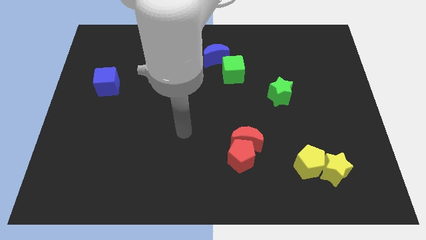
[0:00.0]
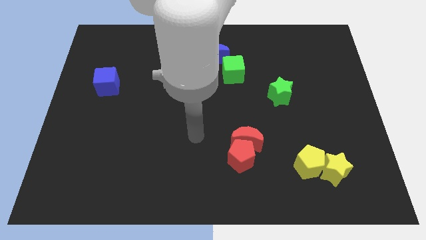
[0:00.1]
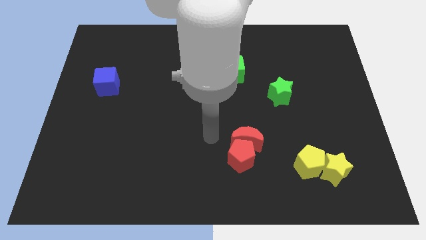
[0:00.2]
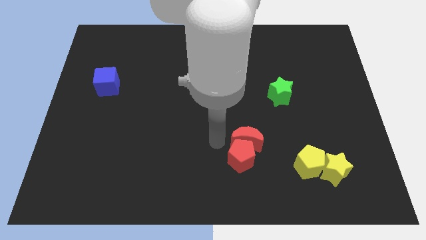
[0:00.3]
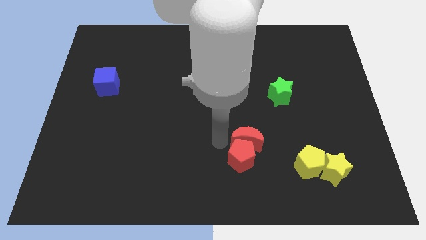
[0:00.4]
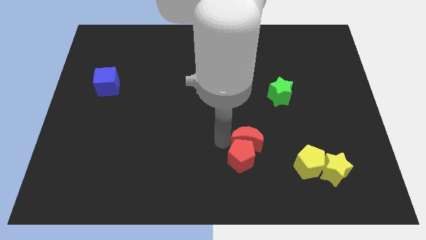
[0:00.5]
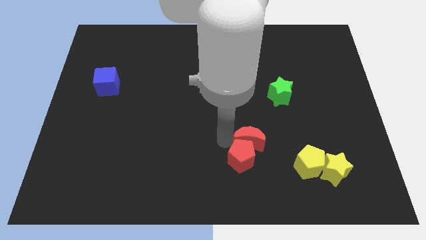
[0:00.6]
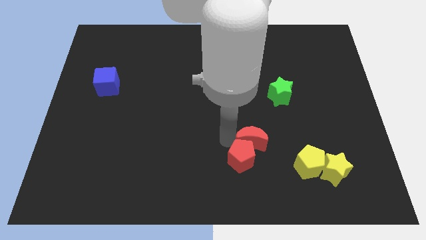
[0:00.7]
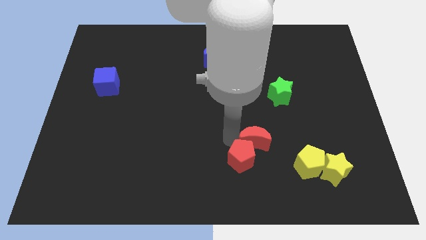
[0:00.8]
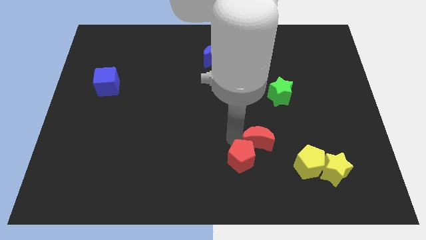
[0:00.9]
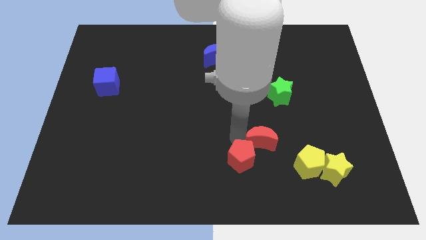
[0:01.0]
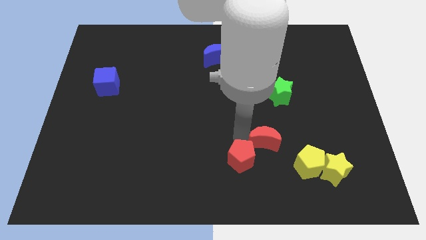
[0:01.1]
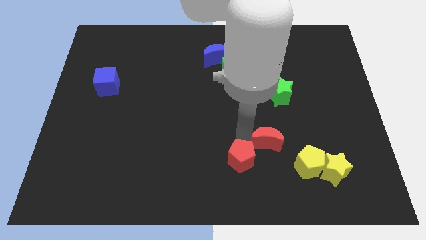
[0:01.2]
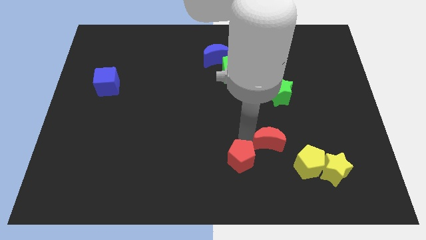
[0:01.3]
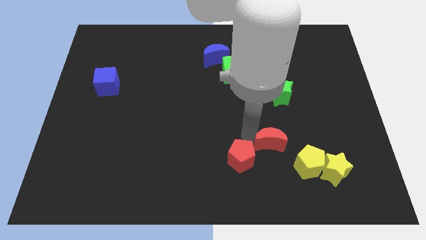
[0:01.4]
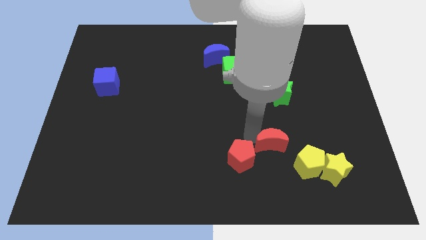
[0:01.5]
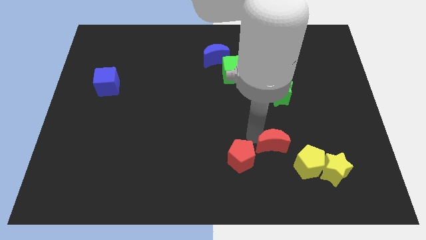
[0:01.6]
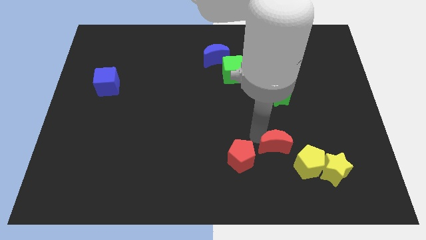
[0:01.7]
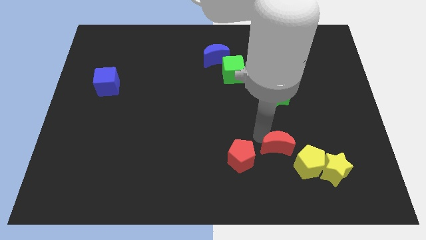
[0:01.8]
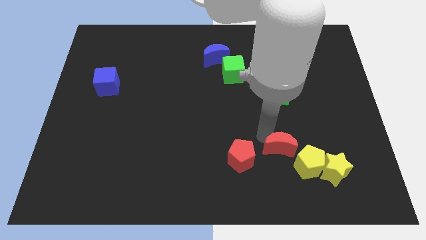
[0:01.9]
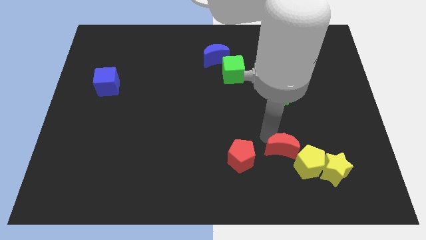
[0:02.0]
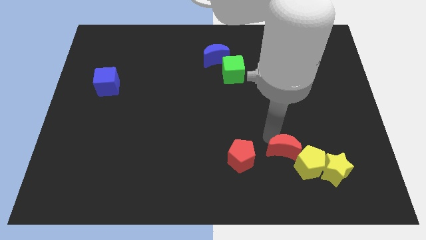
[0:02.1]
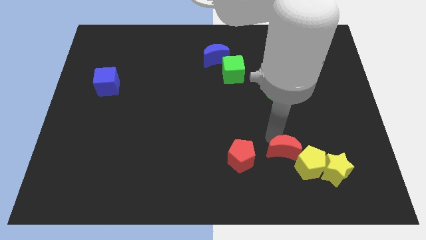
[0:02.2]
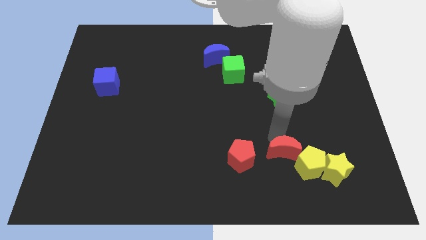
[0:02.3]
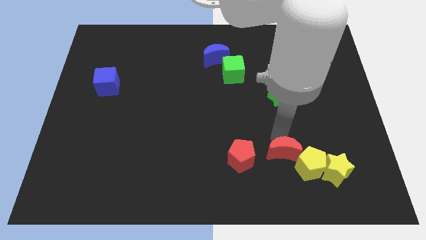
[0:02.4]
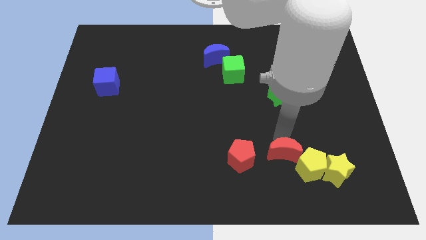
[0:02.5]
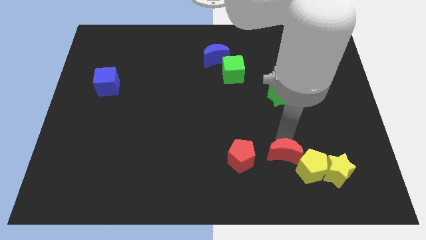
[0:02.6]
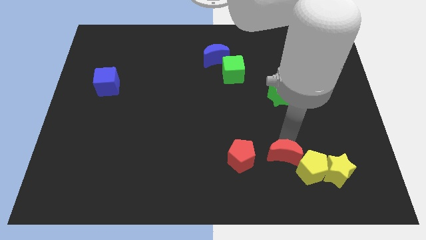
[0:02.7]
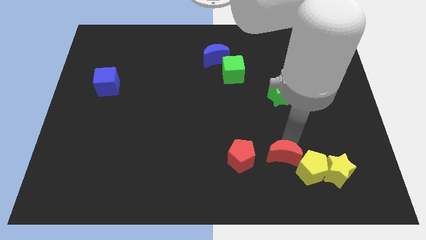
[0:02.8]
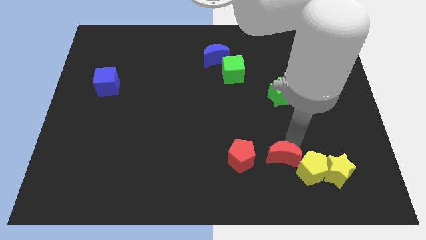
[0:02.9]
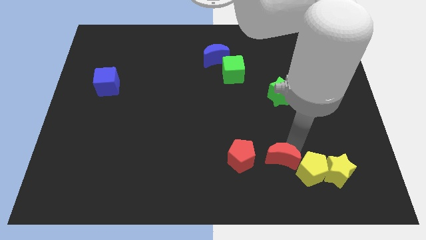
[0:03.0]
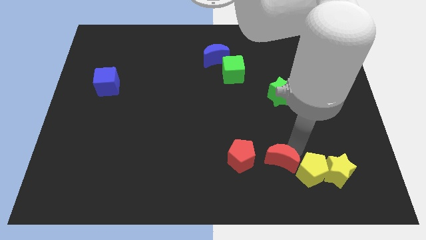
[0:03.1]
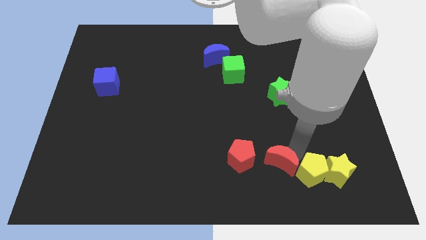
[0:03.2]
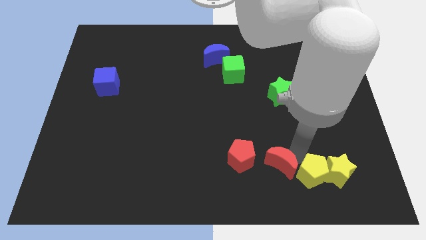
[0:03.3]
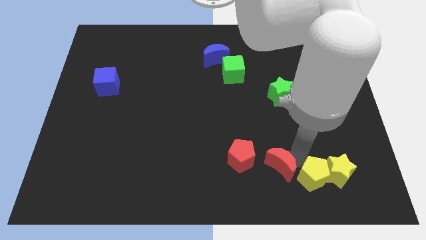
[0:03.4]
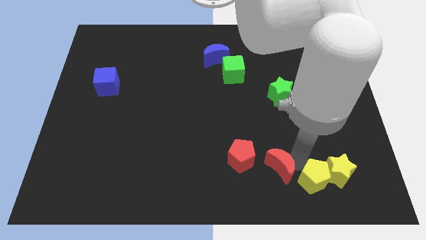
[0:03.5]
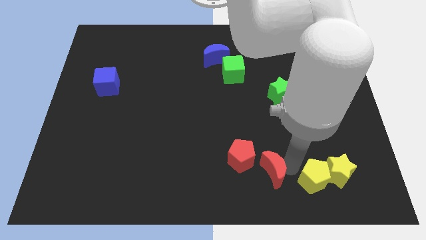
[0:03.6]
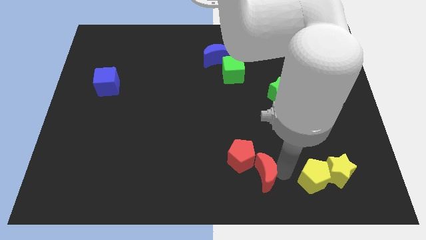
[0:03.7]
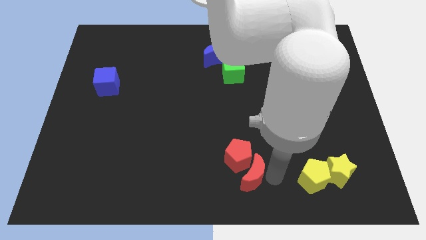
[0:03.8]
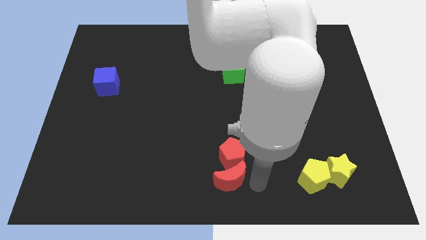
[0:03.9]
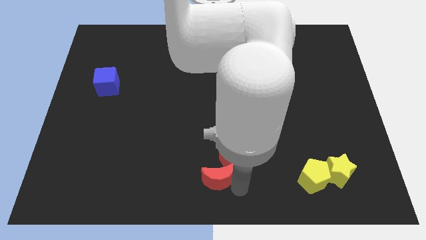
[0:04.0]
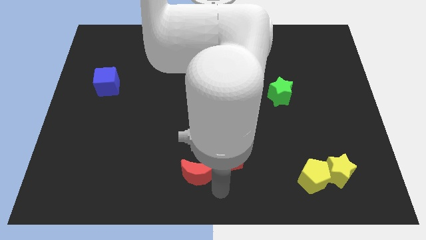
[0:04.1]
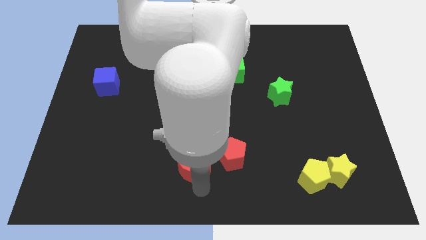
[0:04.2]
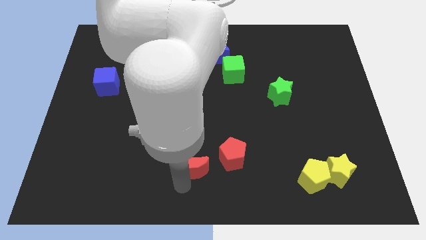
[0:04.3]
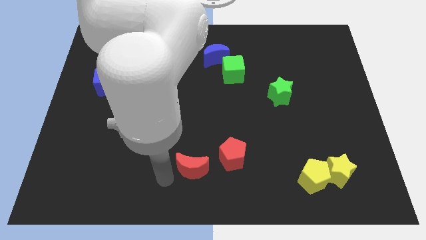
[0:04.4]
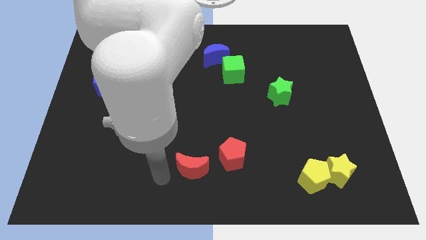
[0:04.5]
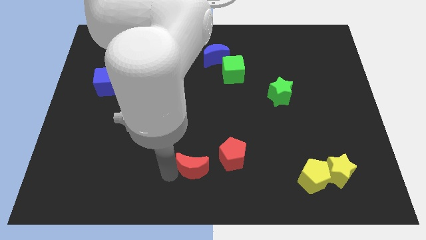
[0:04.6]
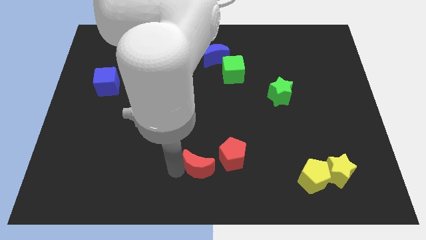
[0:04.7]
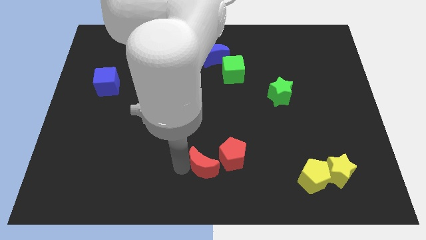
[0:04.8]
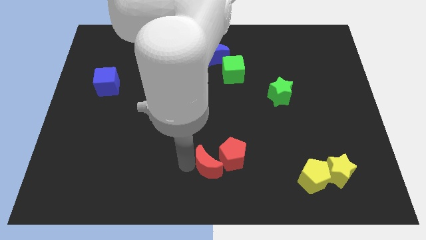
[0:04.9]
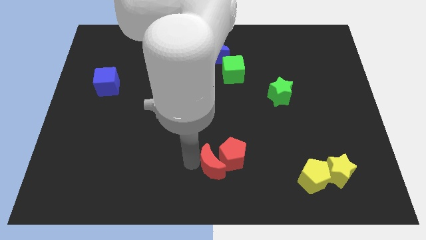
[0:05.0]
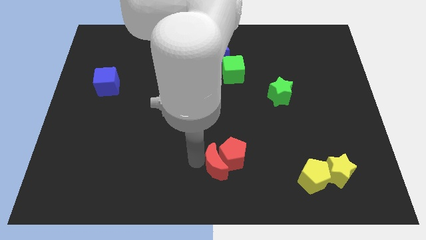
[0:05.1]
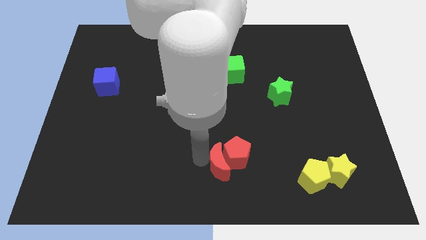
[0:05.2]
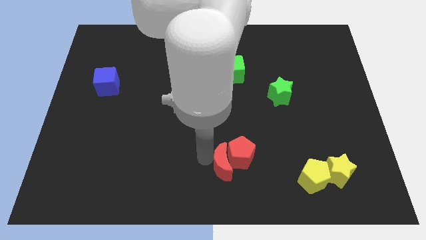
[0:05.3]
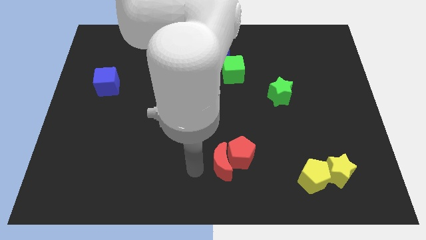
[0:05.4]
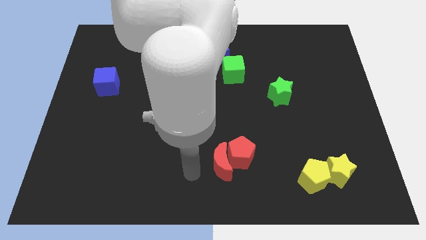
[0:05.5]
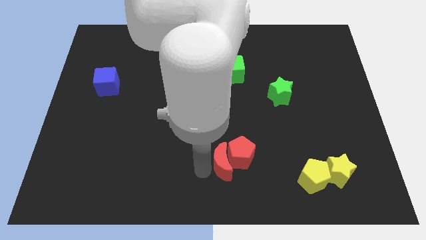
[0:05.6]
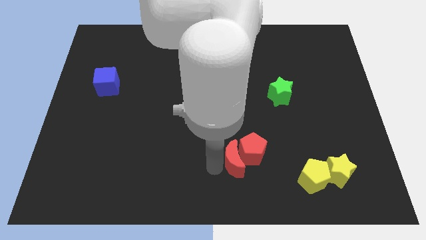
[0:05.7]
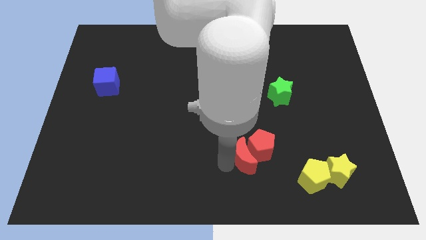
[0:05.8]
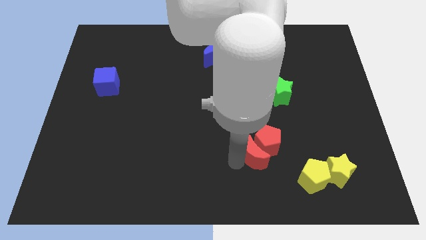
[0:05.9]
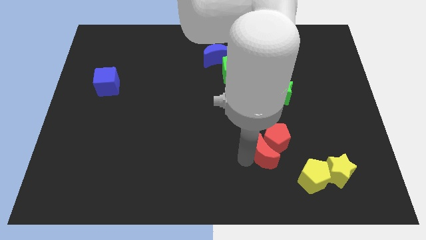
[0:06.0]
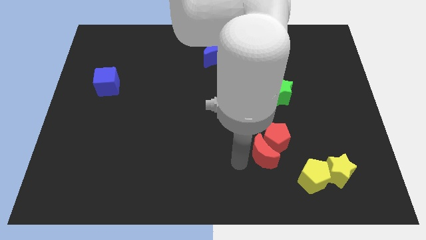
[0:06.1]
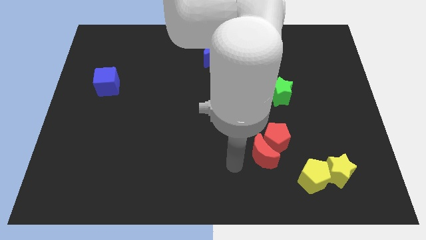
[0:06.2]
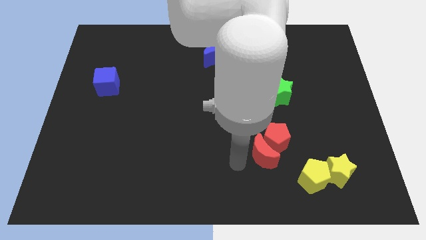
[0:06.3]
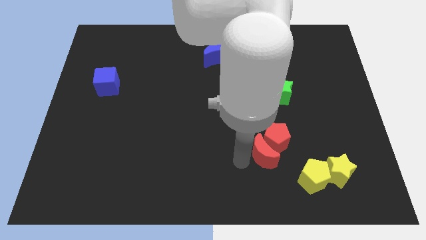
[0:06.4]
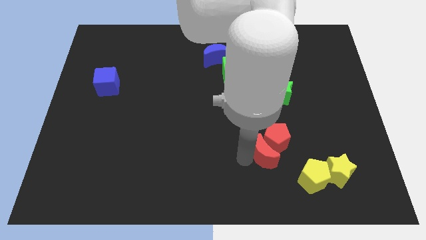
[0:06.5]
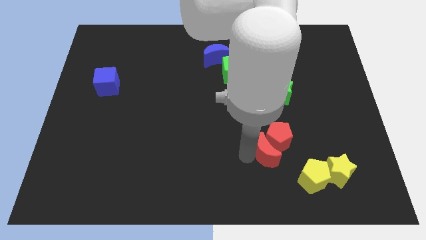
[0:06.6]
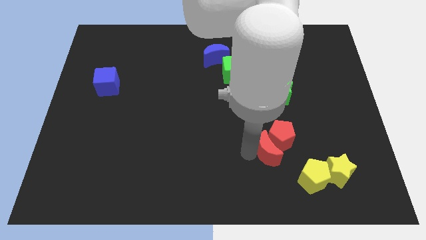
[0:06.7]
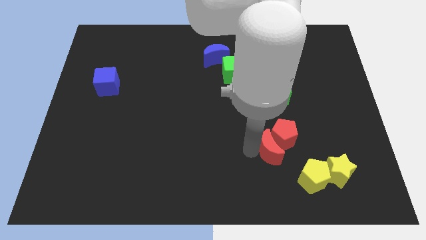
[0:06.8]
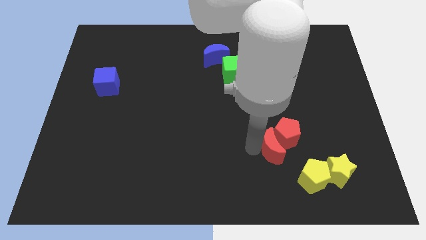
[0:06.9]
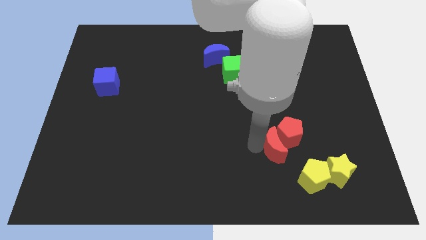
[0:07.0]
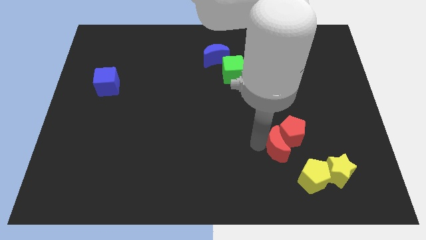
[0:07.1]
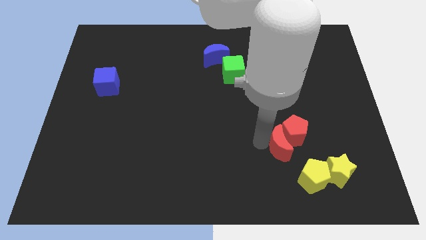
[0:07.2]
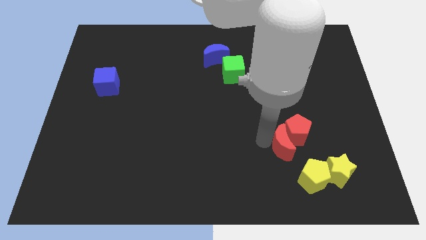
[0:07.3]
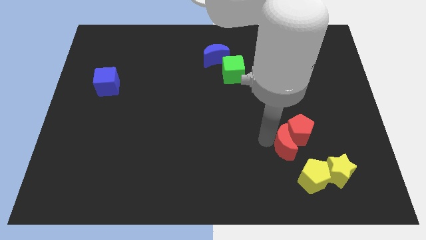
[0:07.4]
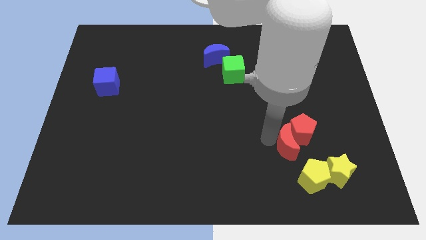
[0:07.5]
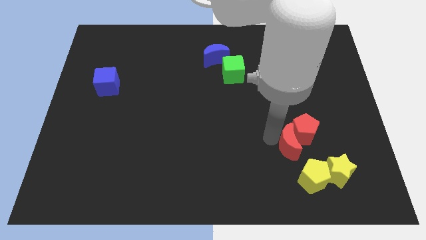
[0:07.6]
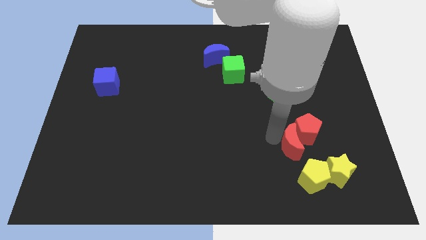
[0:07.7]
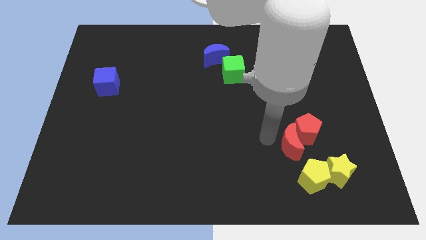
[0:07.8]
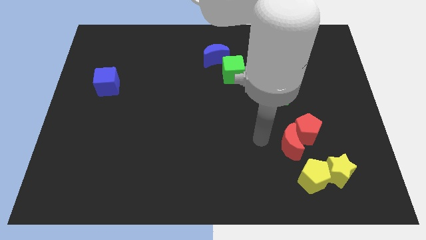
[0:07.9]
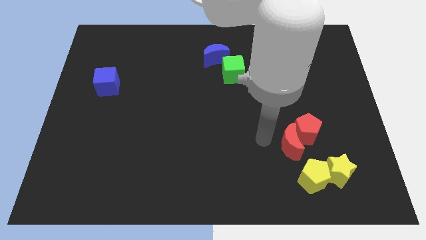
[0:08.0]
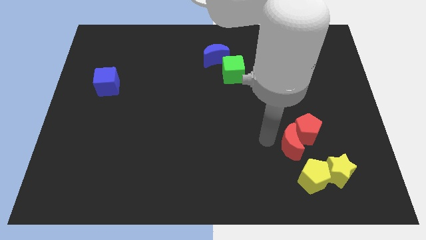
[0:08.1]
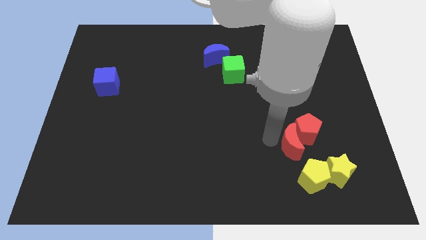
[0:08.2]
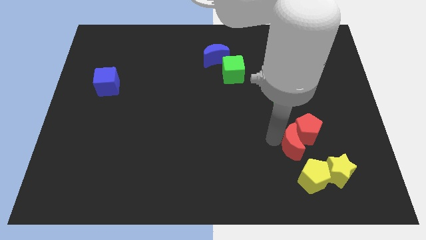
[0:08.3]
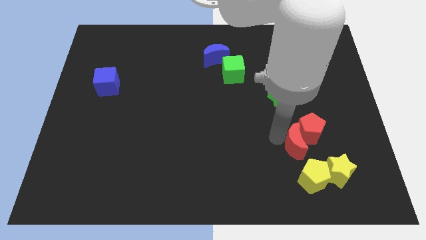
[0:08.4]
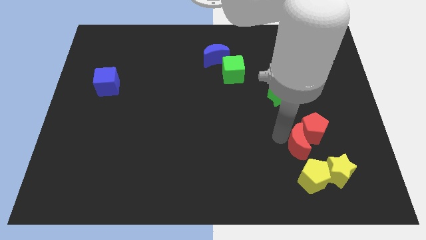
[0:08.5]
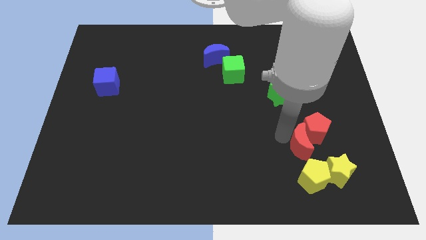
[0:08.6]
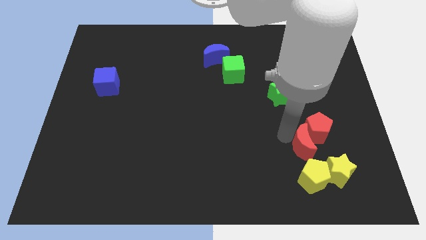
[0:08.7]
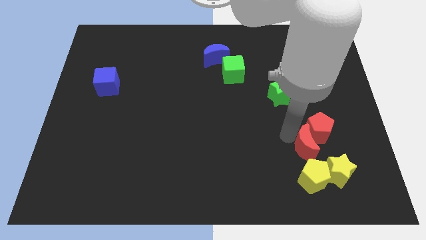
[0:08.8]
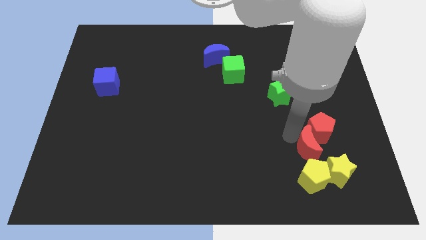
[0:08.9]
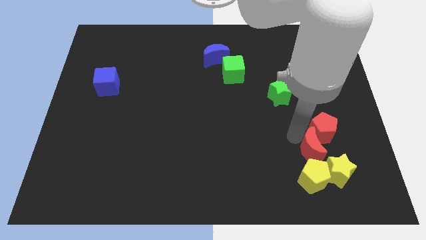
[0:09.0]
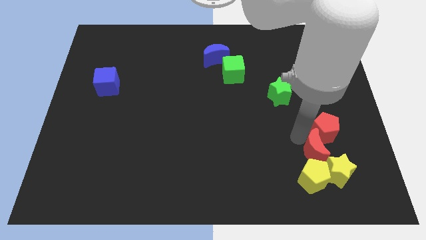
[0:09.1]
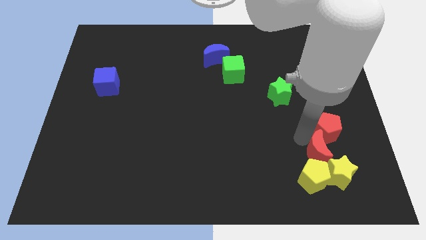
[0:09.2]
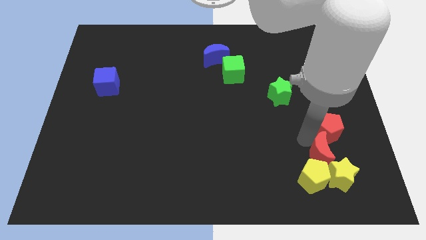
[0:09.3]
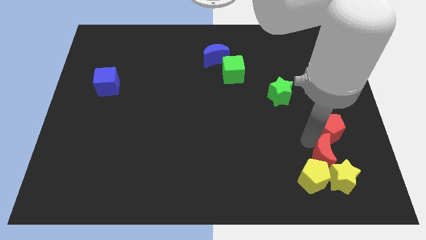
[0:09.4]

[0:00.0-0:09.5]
push the red moon close to the yellow star
